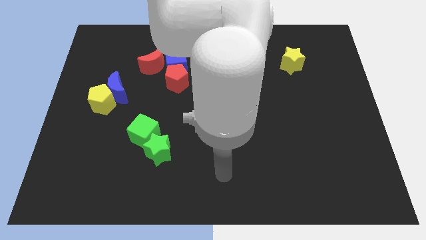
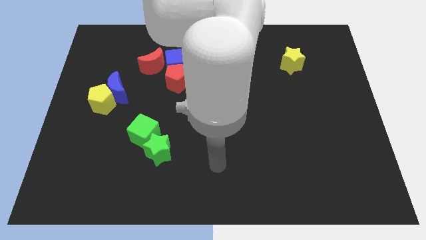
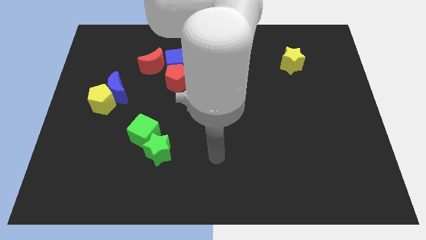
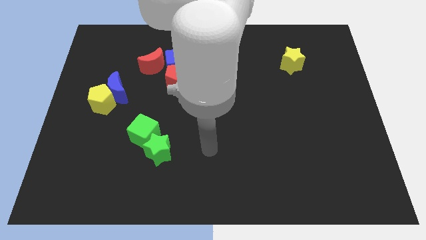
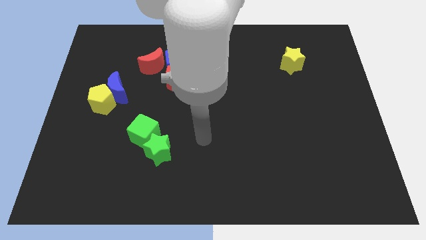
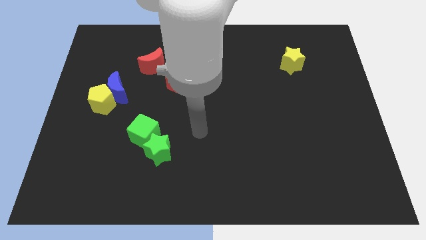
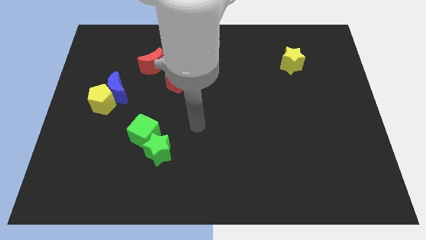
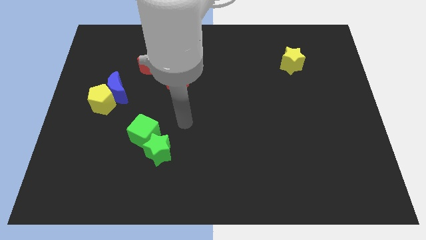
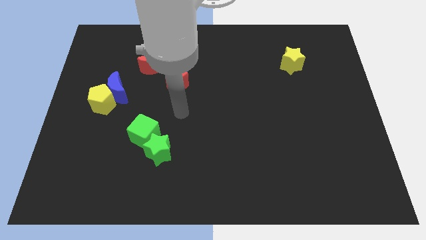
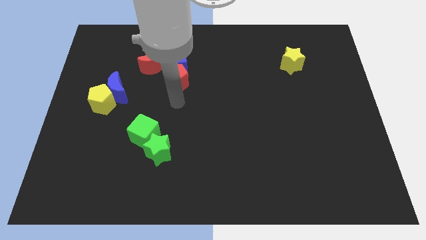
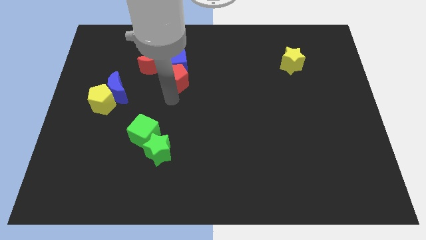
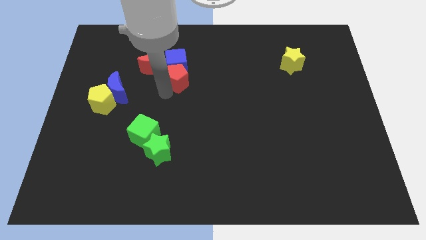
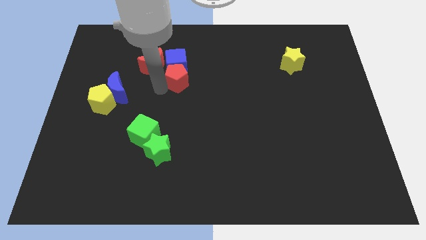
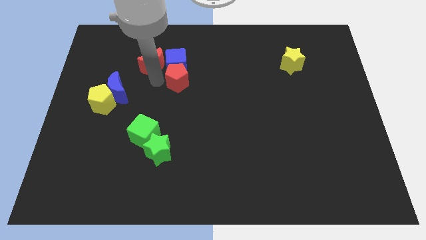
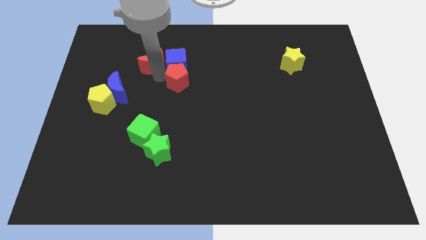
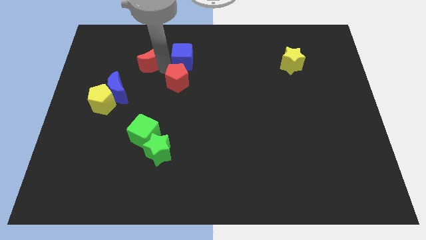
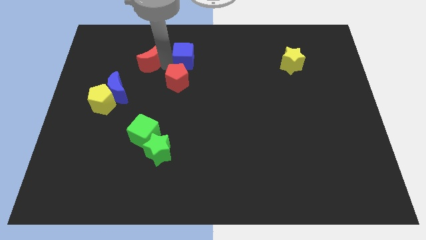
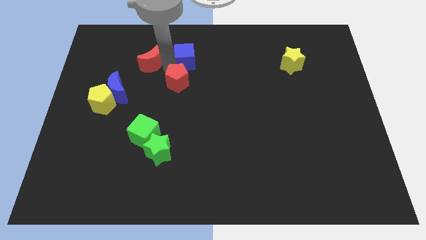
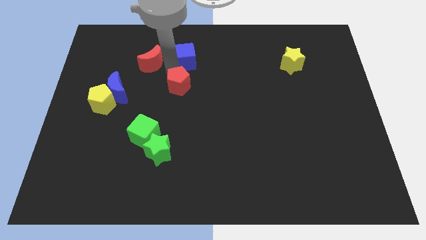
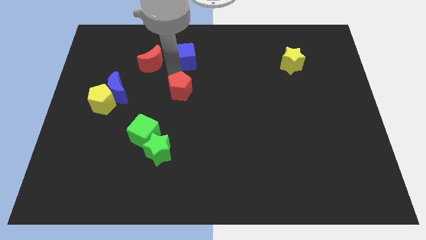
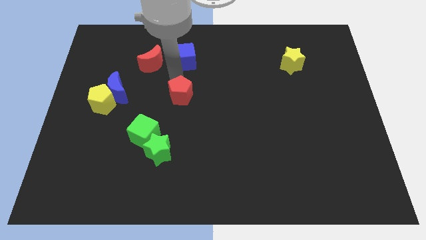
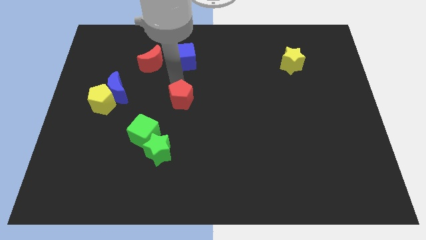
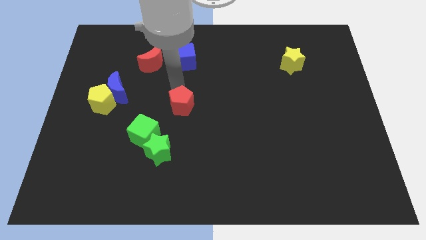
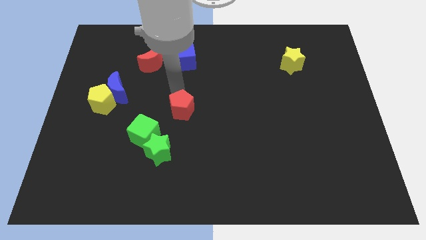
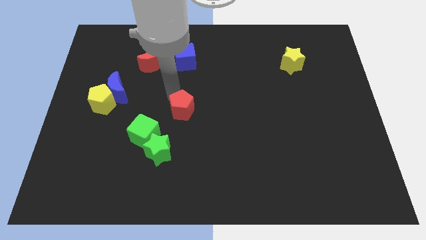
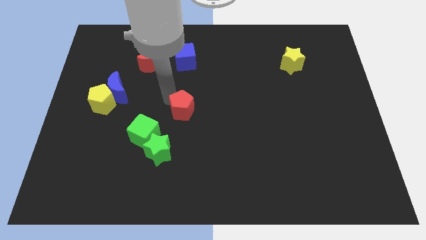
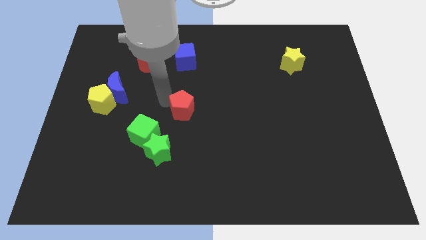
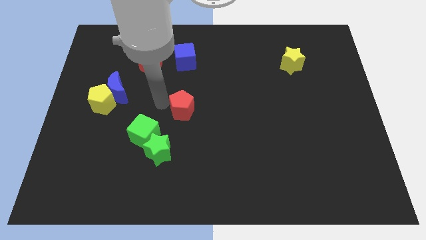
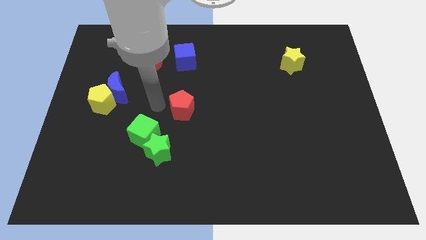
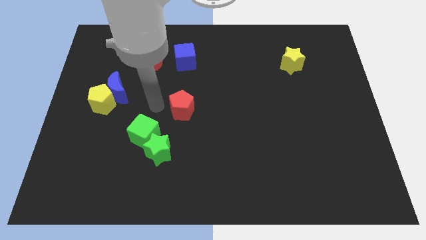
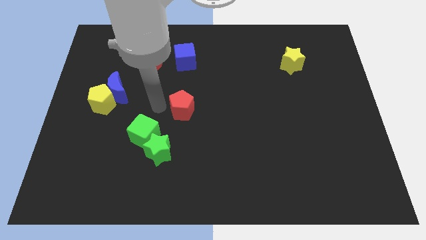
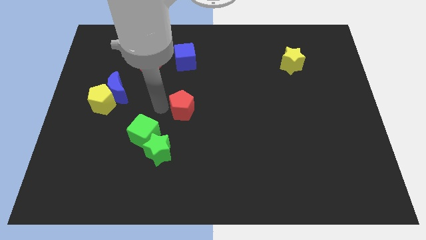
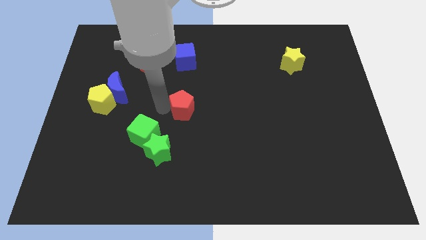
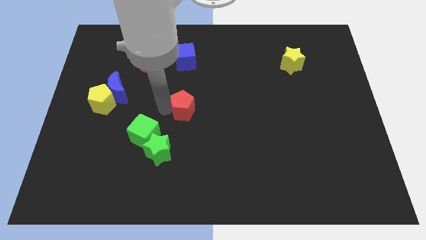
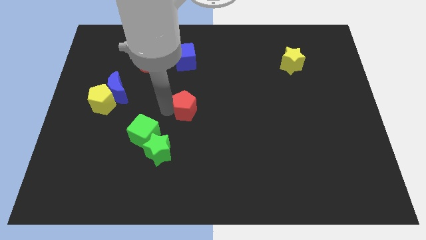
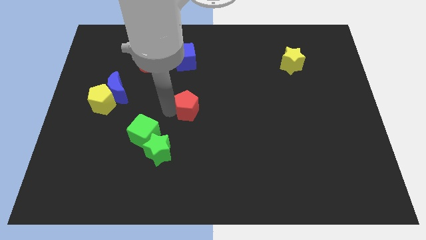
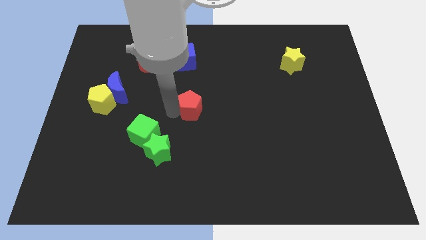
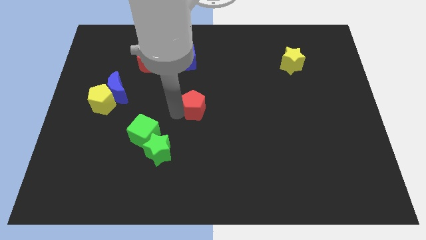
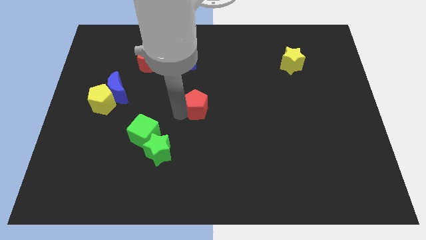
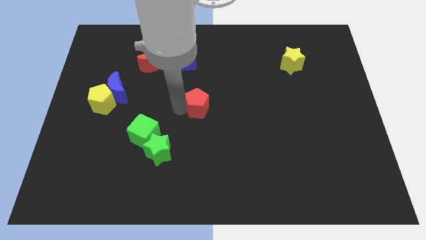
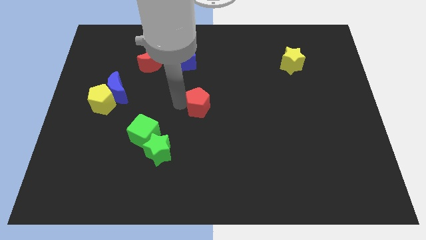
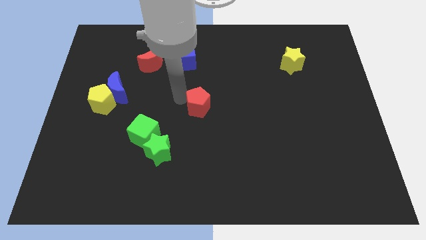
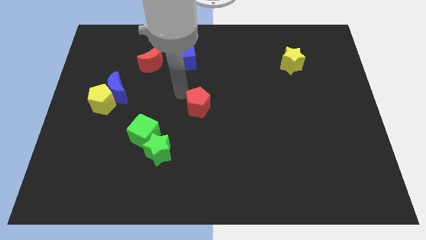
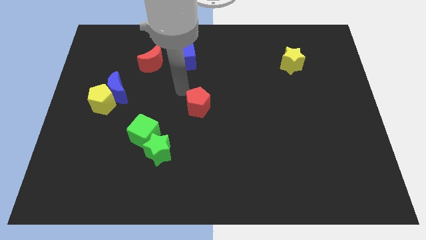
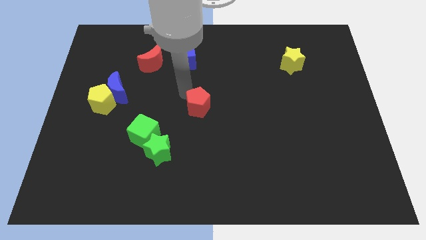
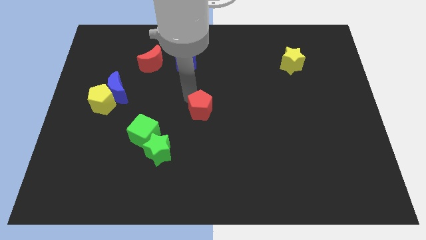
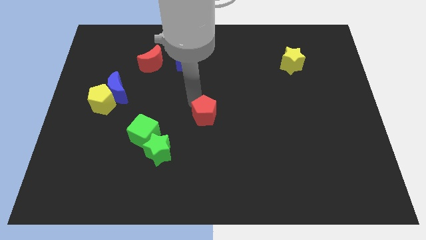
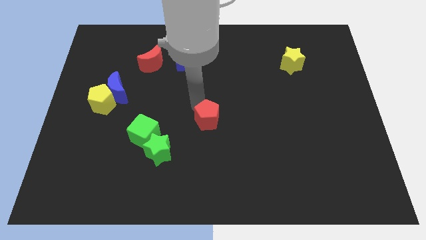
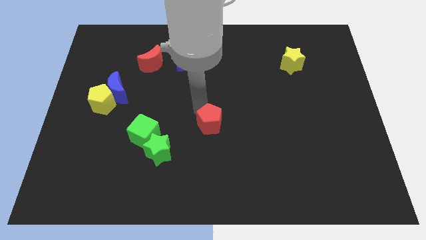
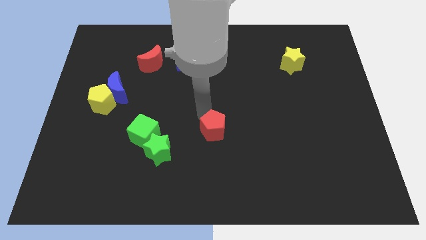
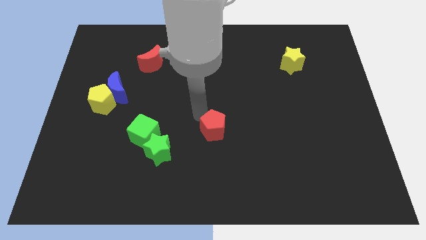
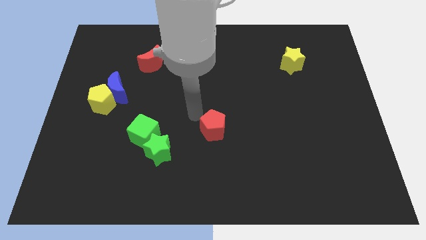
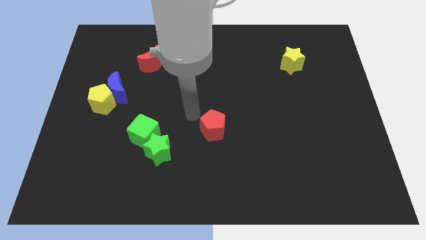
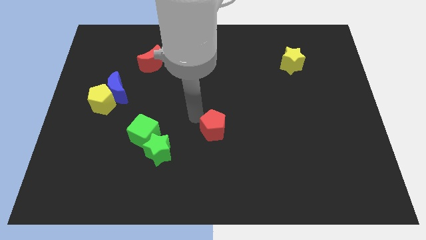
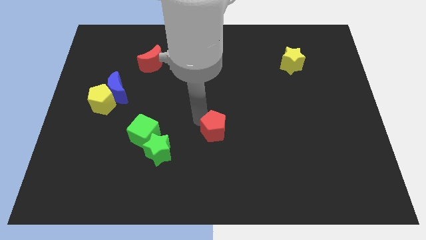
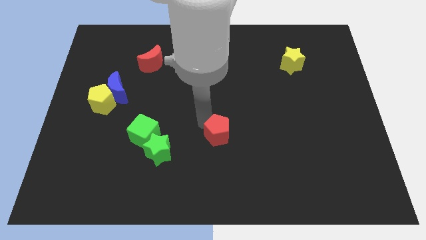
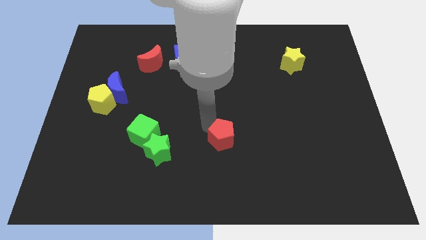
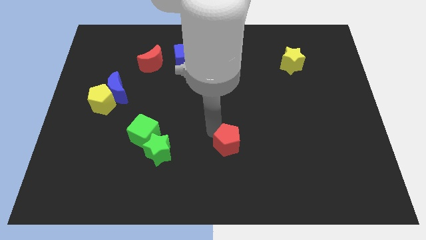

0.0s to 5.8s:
slide the red pentagon downwards and right

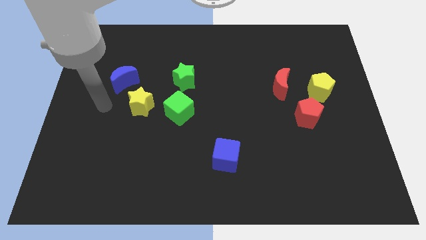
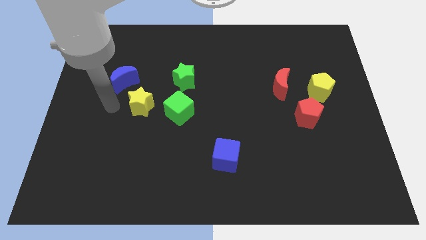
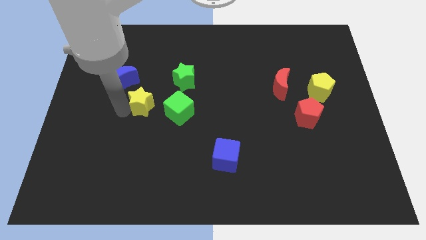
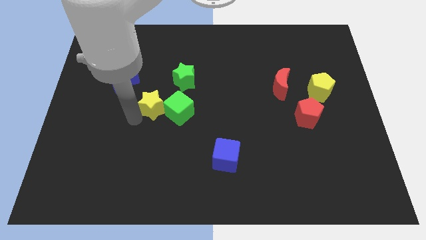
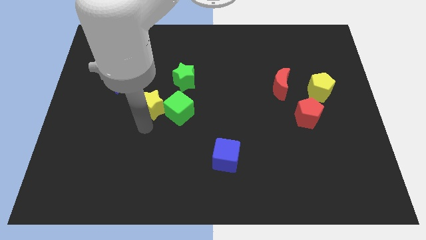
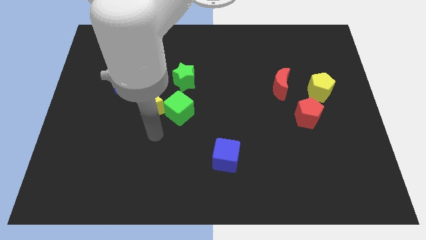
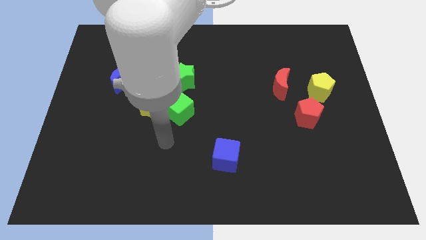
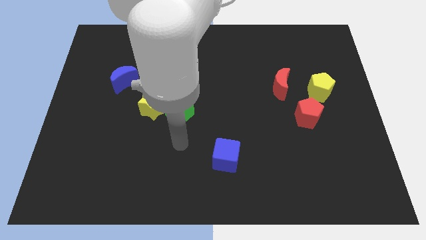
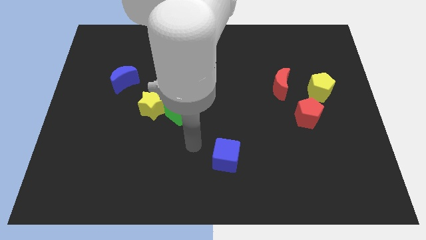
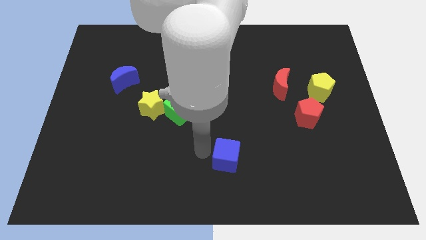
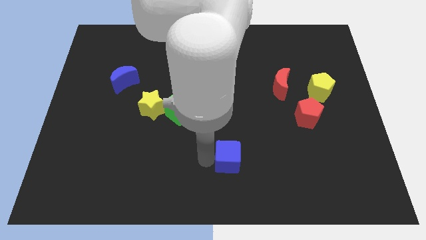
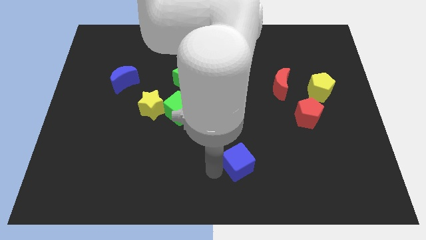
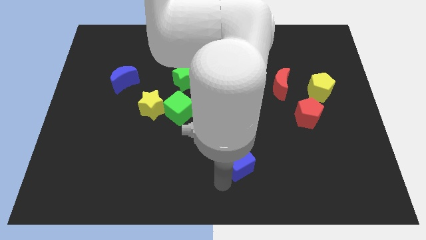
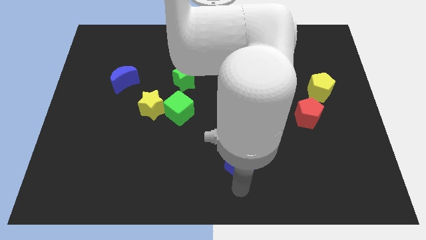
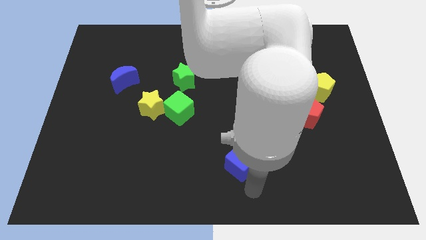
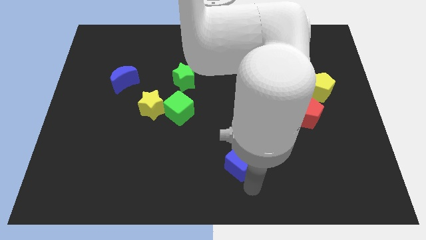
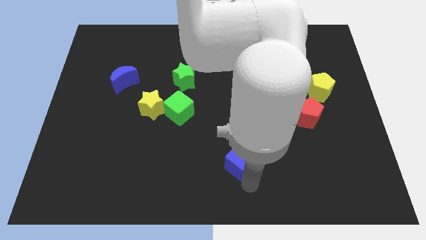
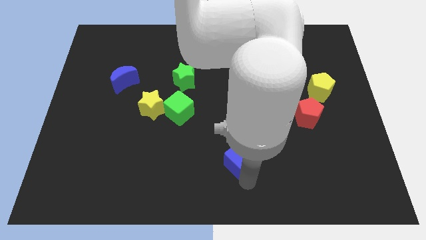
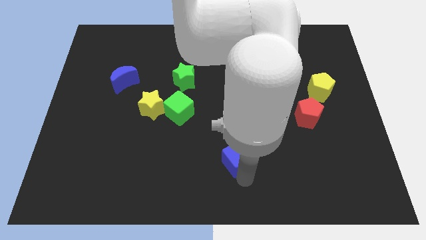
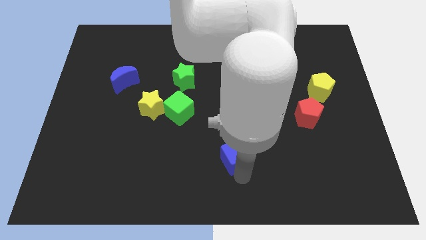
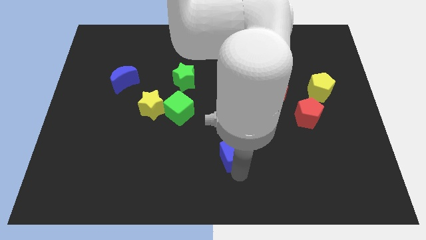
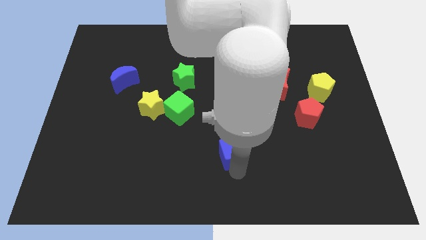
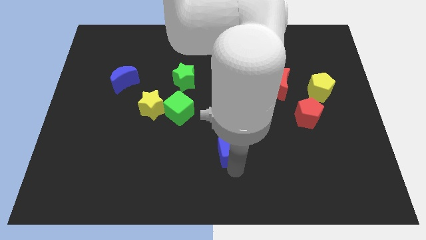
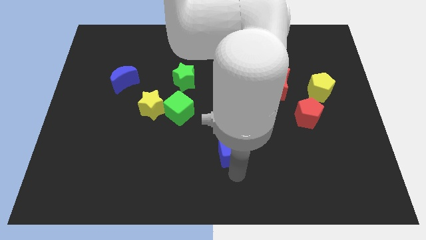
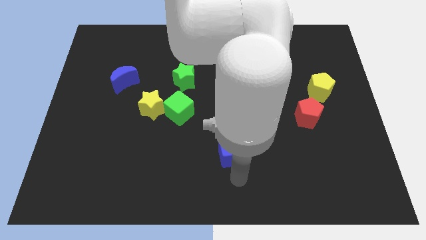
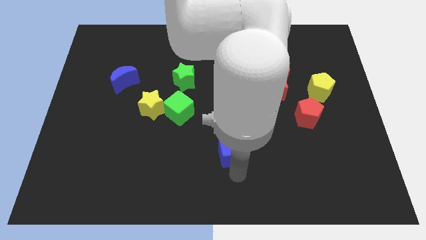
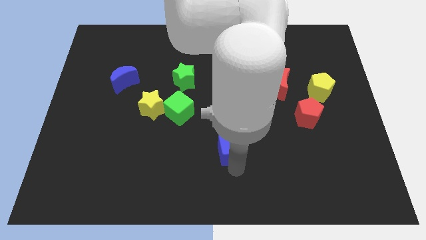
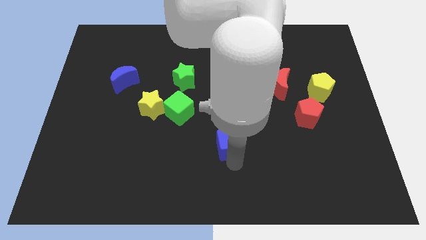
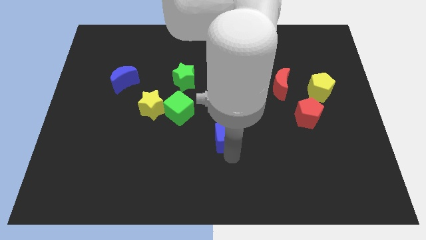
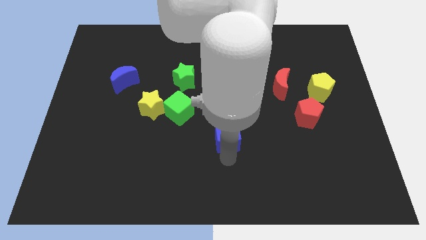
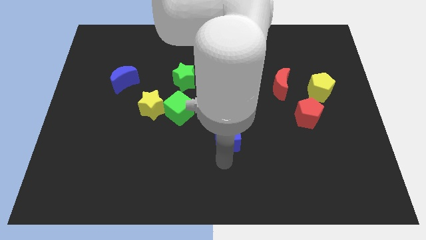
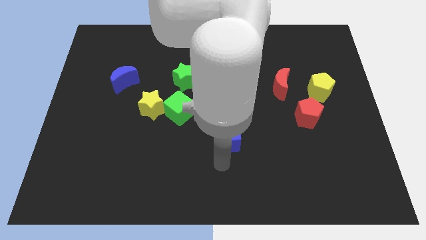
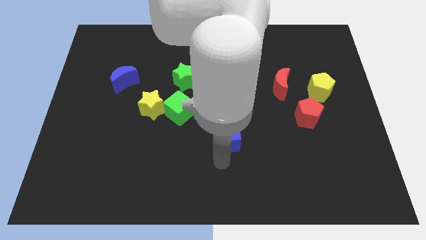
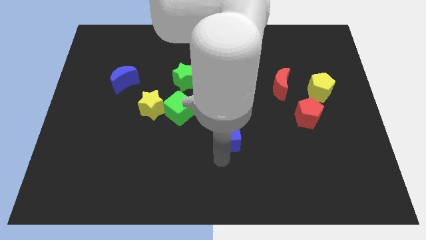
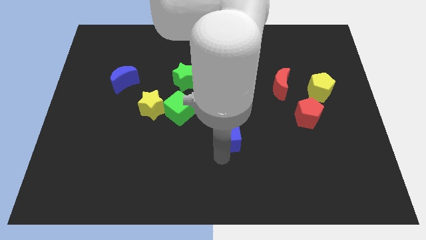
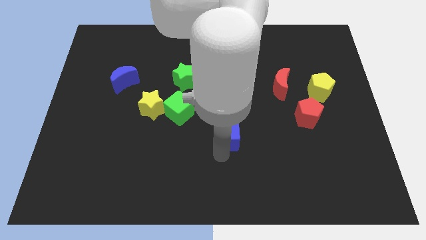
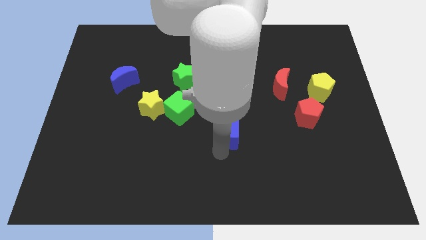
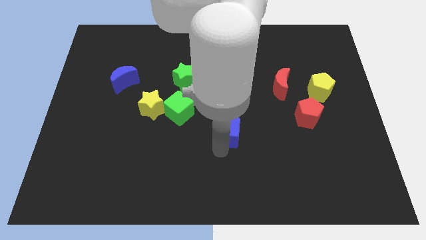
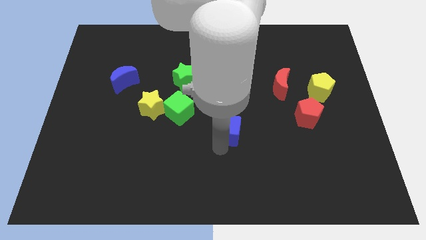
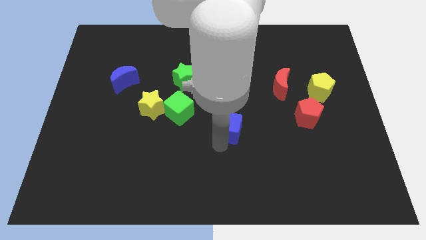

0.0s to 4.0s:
push the blue cube upwards a little bit
